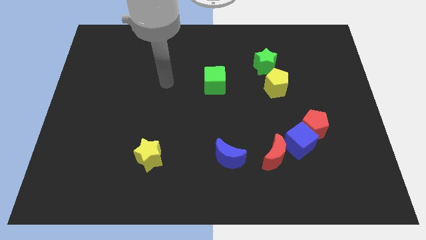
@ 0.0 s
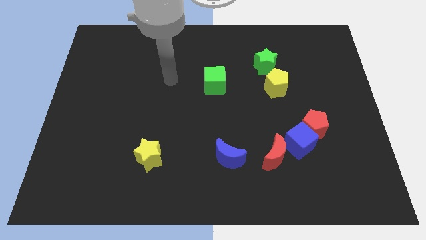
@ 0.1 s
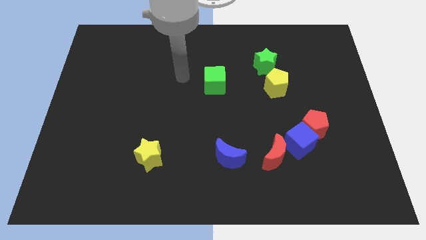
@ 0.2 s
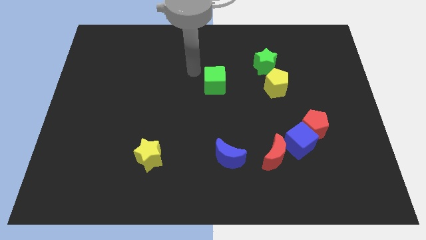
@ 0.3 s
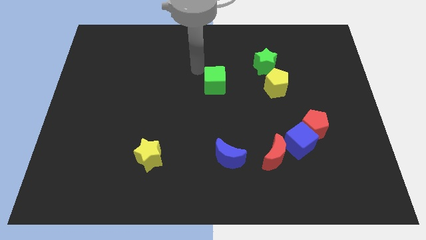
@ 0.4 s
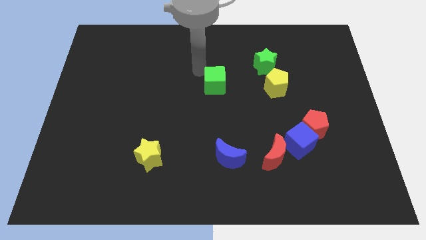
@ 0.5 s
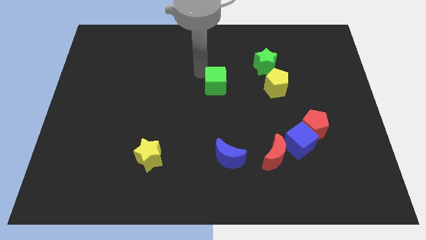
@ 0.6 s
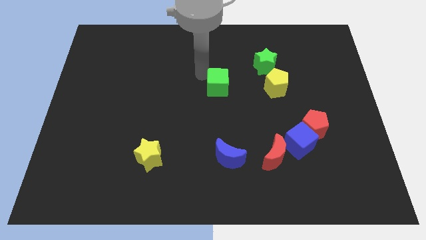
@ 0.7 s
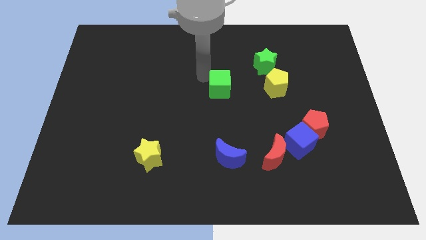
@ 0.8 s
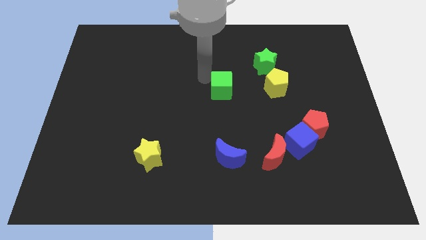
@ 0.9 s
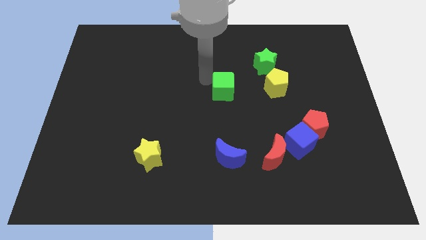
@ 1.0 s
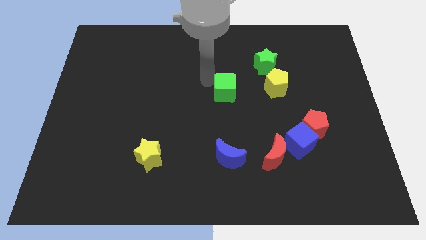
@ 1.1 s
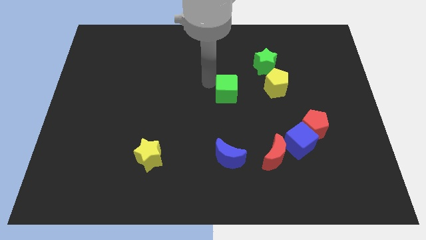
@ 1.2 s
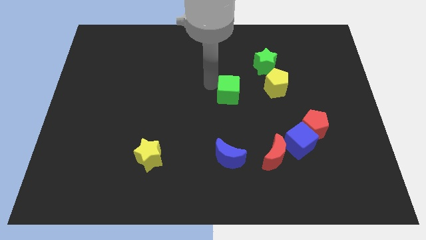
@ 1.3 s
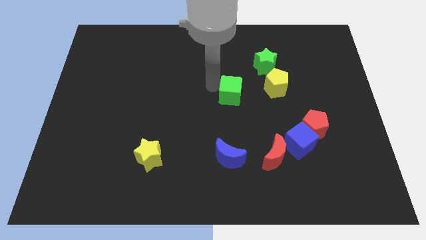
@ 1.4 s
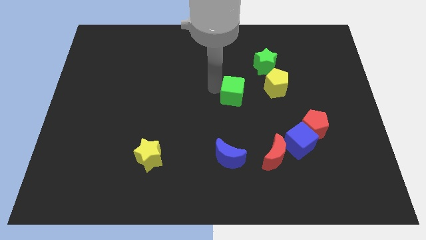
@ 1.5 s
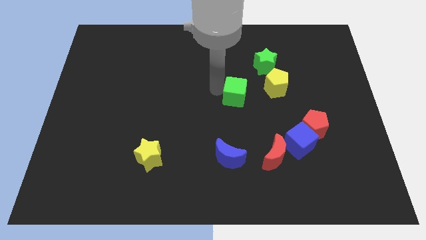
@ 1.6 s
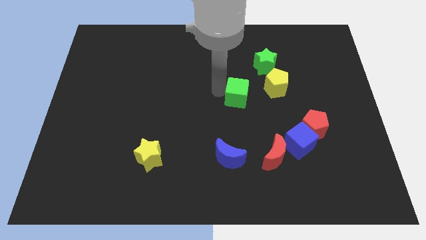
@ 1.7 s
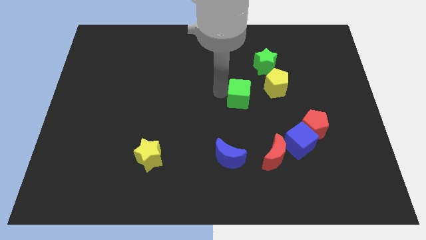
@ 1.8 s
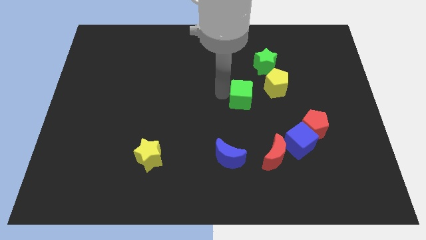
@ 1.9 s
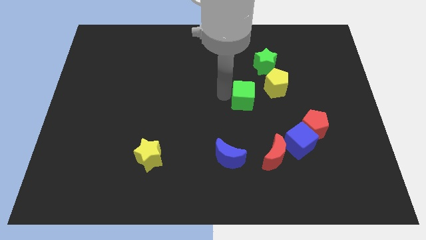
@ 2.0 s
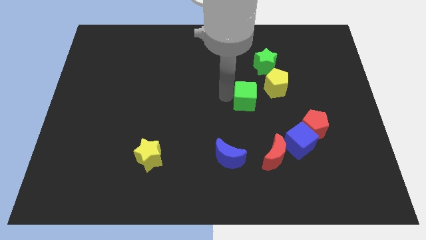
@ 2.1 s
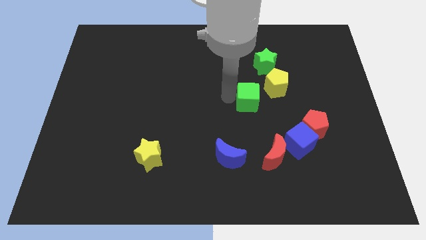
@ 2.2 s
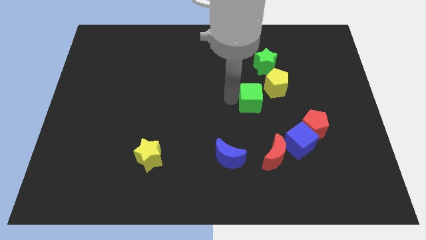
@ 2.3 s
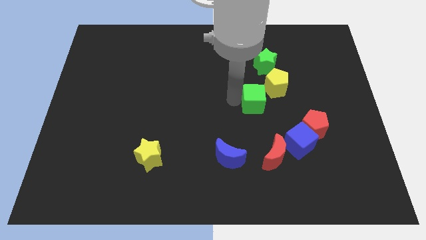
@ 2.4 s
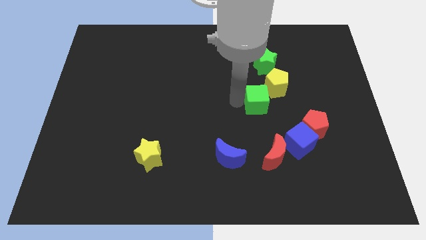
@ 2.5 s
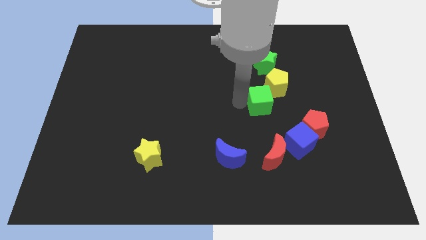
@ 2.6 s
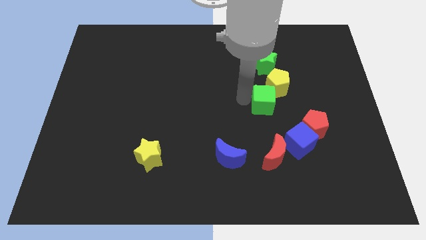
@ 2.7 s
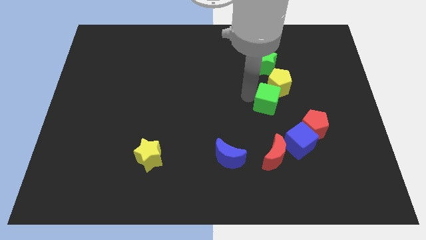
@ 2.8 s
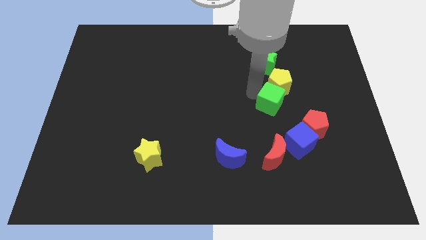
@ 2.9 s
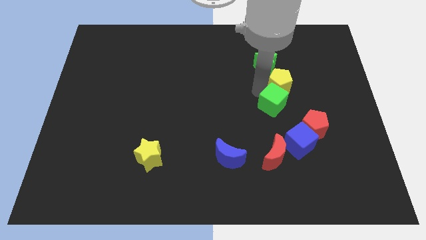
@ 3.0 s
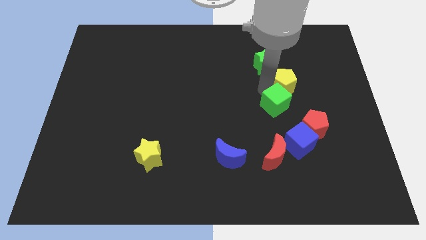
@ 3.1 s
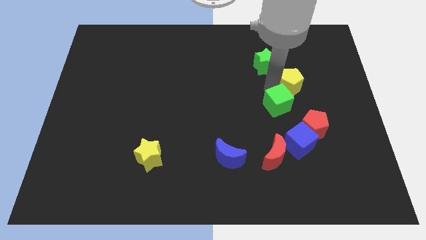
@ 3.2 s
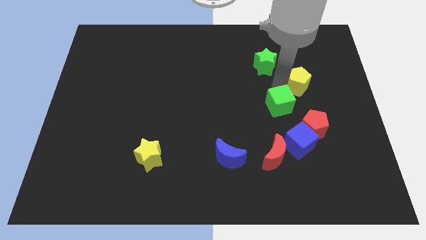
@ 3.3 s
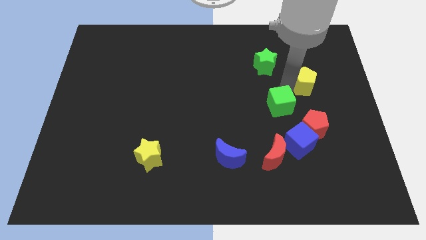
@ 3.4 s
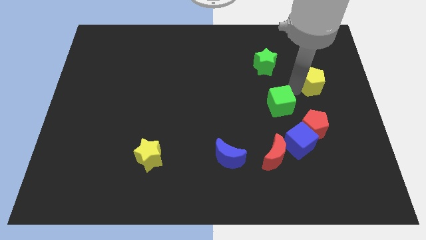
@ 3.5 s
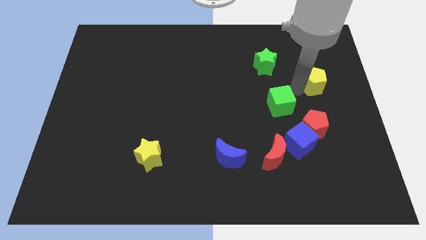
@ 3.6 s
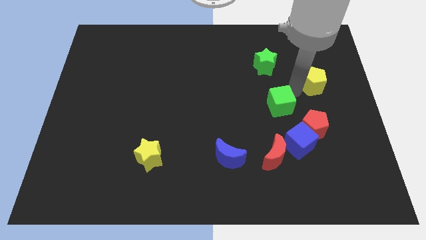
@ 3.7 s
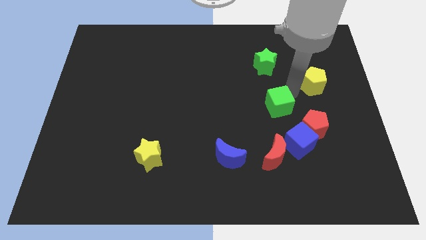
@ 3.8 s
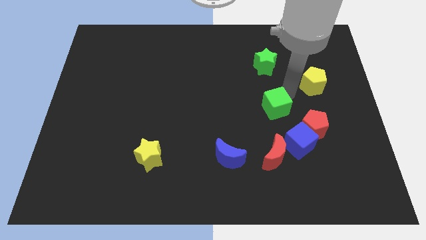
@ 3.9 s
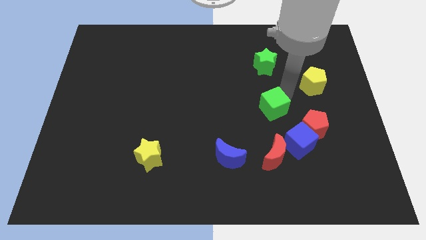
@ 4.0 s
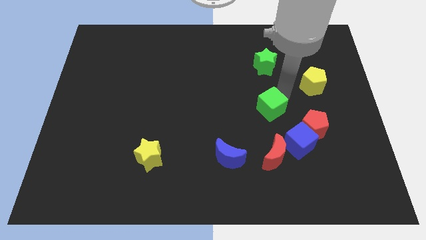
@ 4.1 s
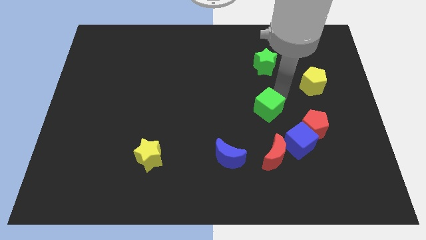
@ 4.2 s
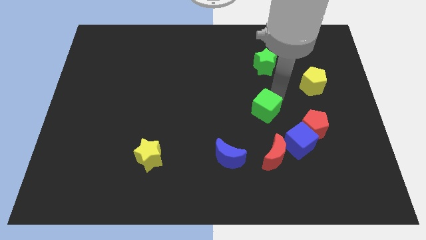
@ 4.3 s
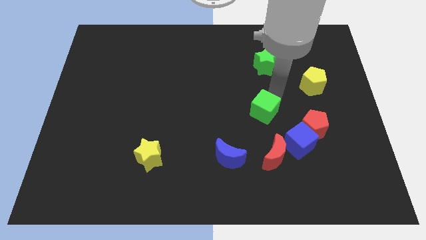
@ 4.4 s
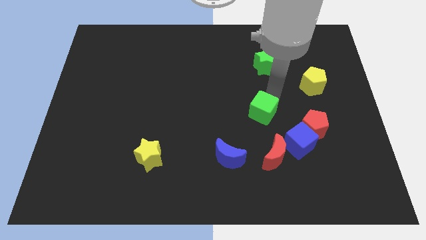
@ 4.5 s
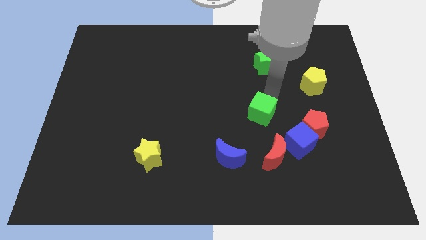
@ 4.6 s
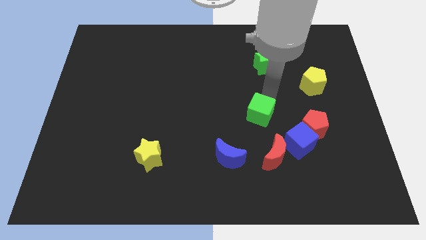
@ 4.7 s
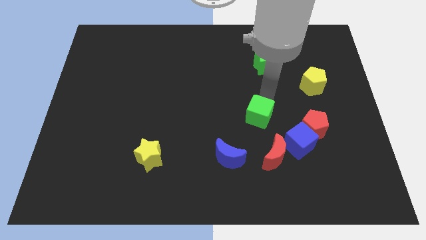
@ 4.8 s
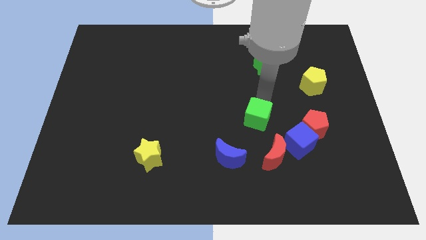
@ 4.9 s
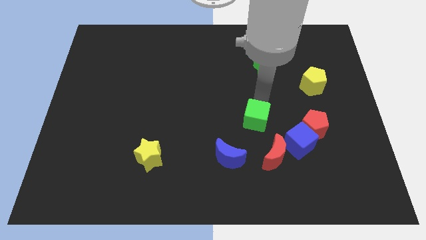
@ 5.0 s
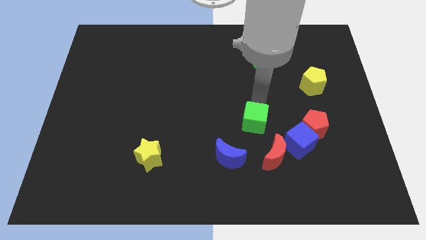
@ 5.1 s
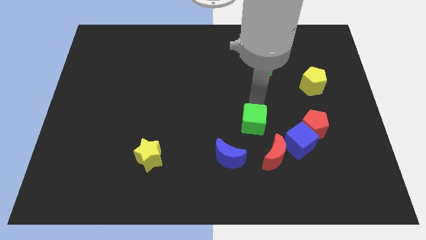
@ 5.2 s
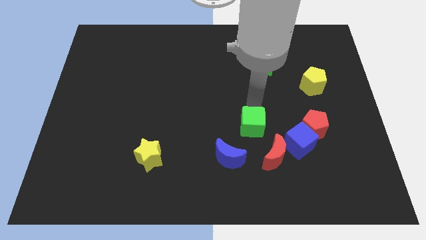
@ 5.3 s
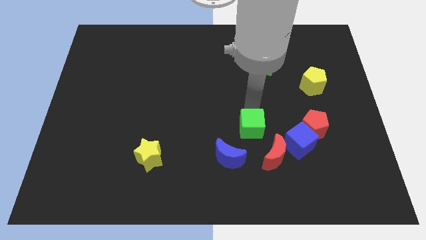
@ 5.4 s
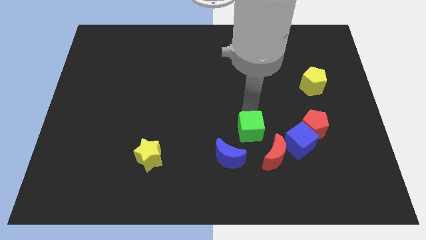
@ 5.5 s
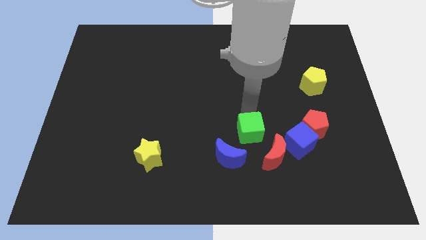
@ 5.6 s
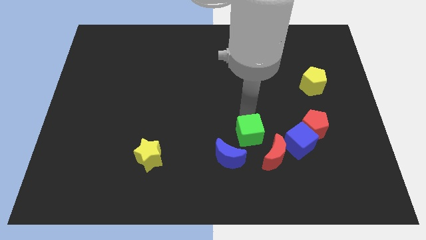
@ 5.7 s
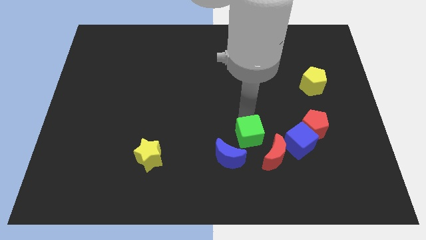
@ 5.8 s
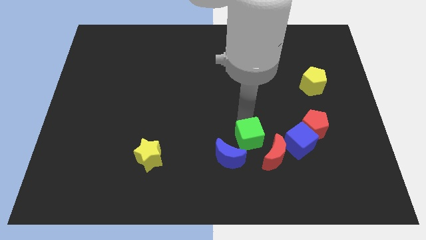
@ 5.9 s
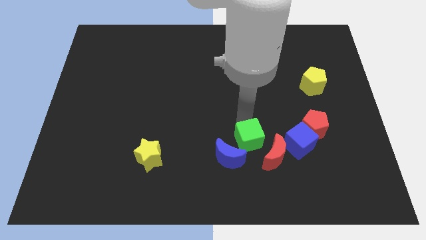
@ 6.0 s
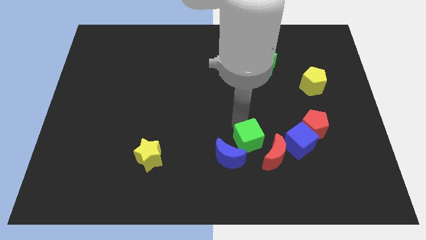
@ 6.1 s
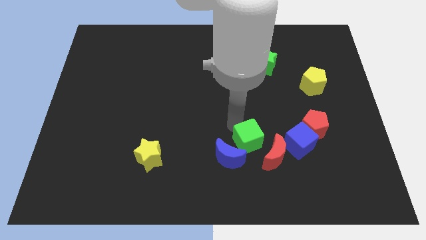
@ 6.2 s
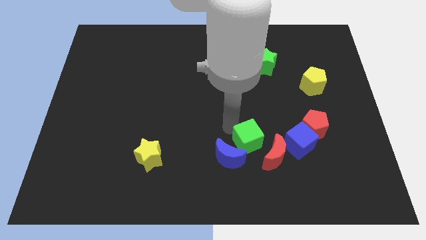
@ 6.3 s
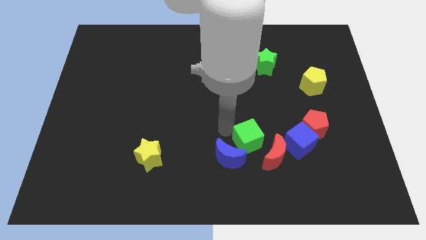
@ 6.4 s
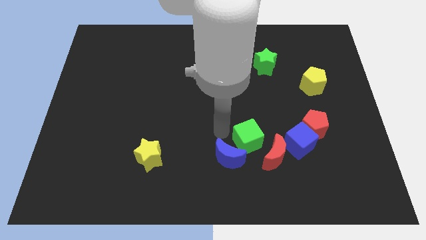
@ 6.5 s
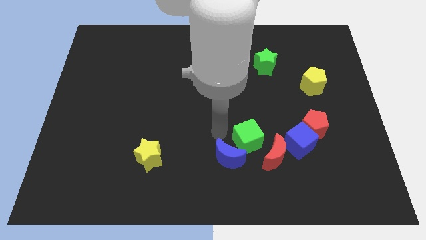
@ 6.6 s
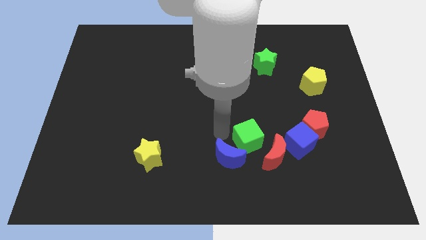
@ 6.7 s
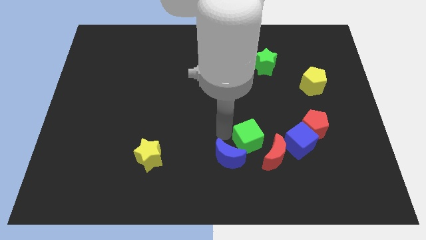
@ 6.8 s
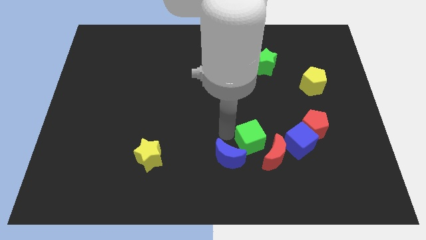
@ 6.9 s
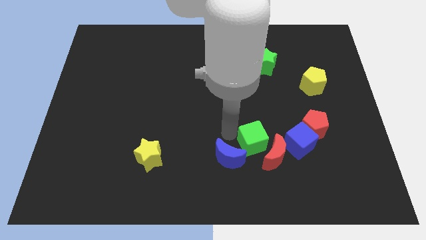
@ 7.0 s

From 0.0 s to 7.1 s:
move the green cube to the red moon
